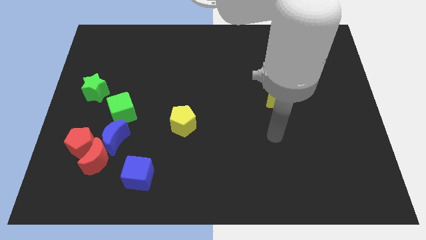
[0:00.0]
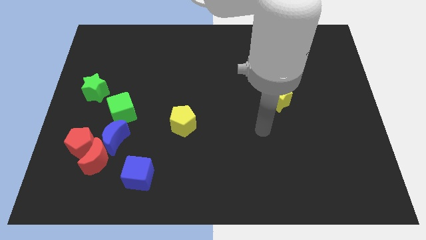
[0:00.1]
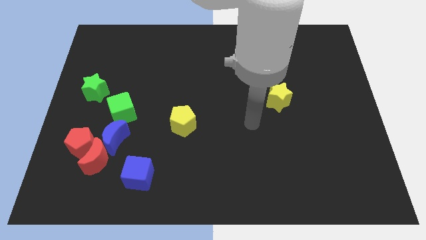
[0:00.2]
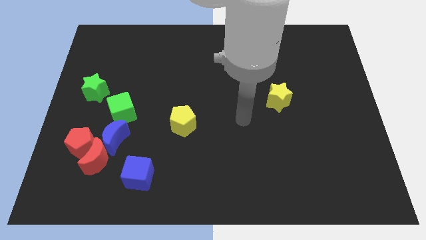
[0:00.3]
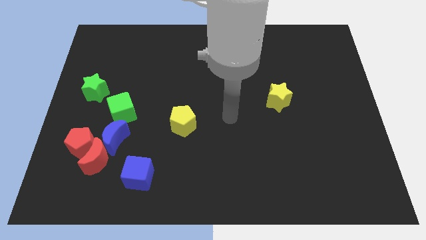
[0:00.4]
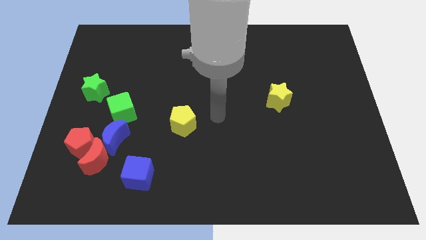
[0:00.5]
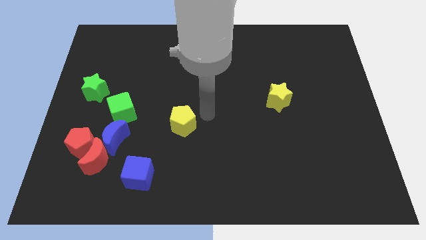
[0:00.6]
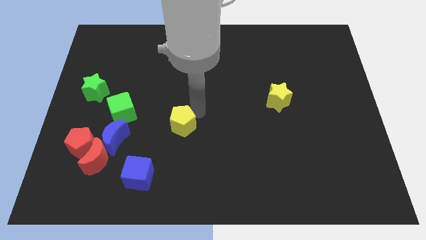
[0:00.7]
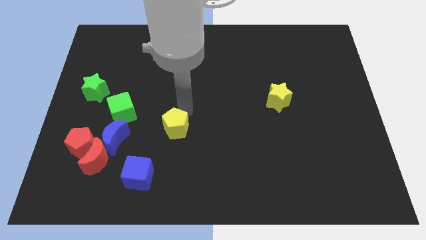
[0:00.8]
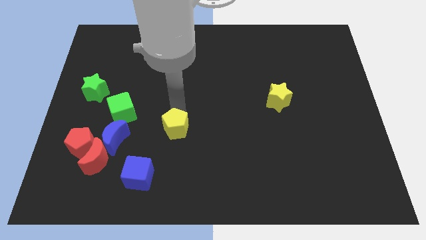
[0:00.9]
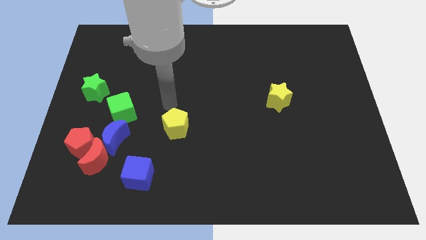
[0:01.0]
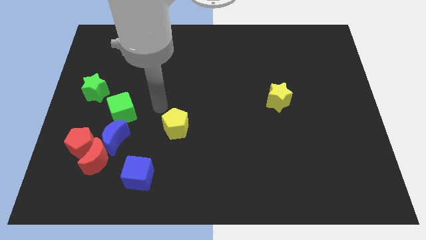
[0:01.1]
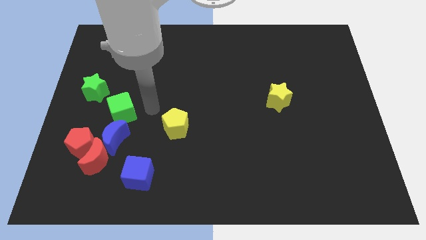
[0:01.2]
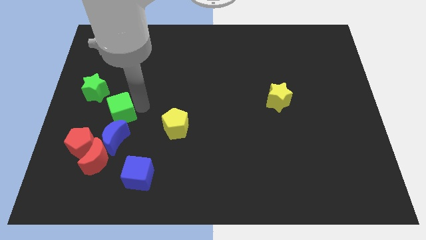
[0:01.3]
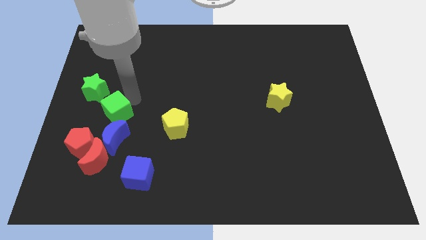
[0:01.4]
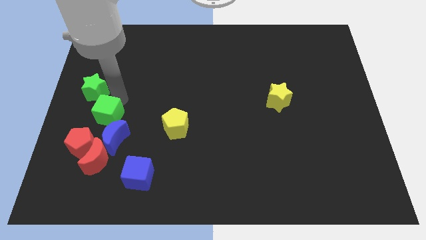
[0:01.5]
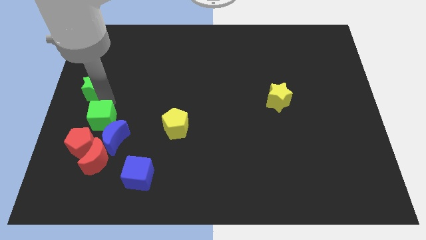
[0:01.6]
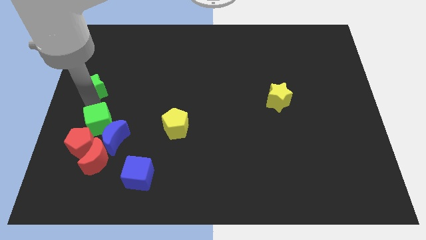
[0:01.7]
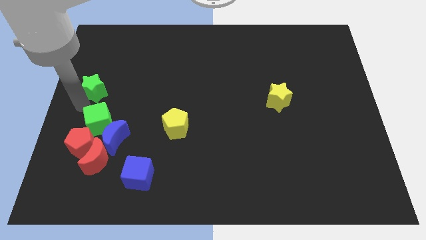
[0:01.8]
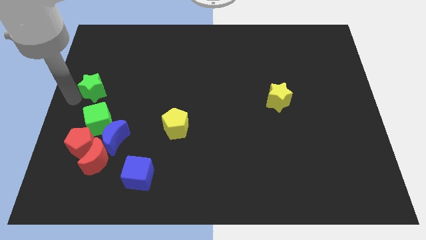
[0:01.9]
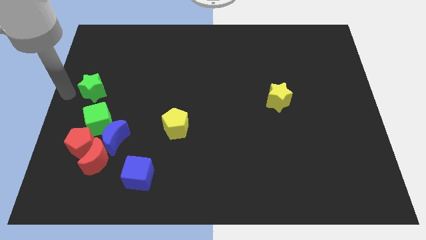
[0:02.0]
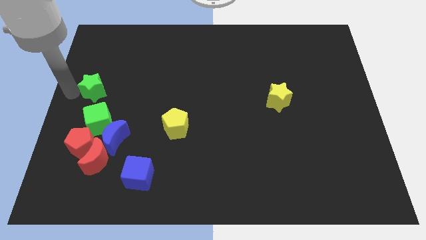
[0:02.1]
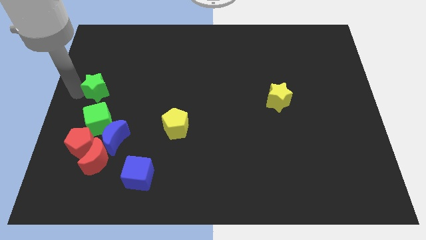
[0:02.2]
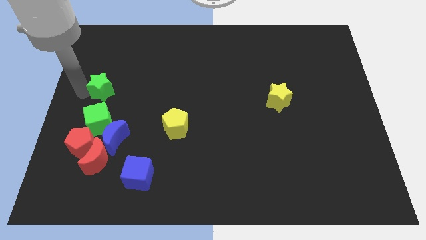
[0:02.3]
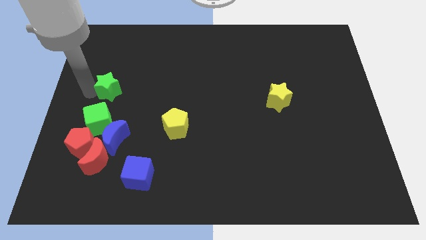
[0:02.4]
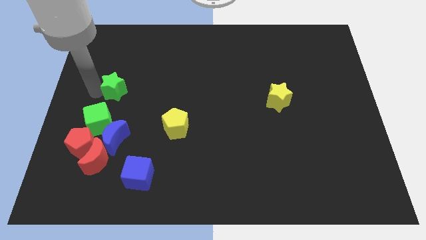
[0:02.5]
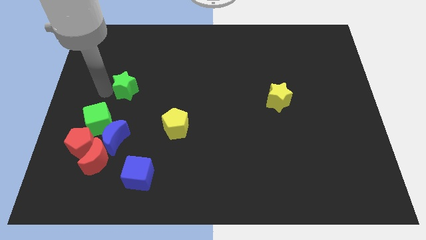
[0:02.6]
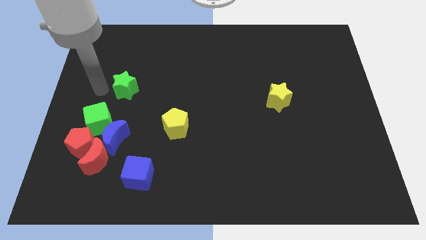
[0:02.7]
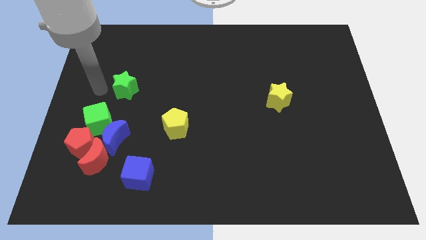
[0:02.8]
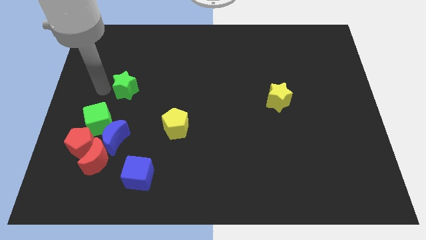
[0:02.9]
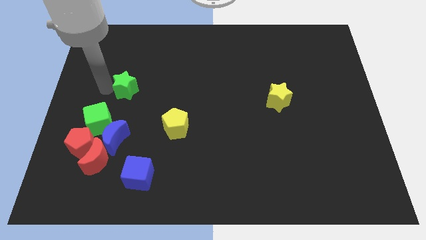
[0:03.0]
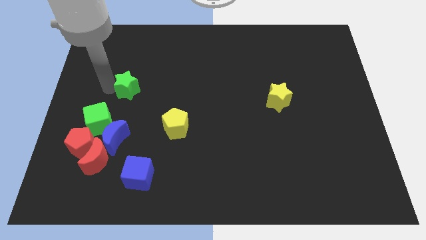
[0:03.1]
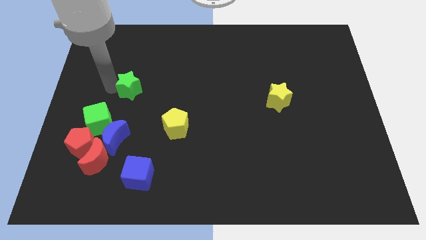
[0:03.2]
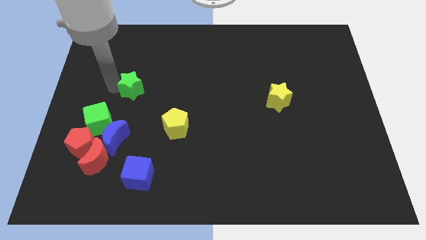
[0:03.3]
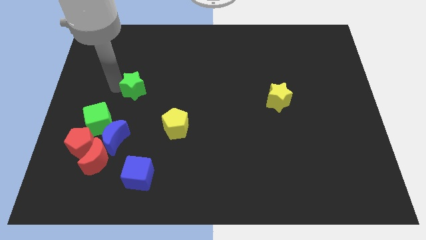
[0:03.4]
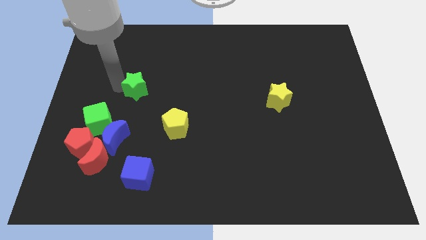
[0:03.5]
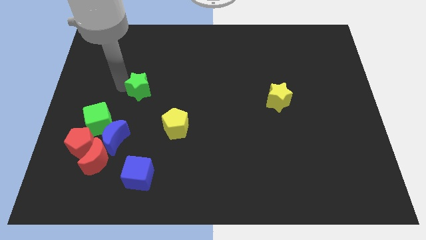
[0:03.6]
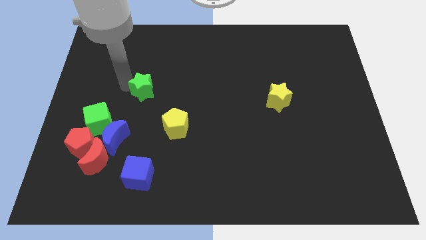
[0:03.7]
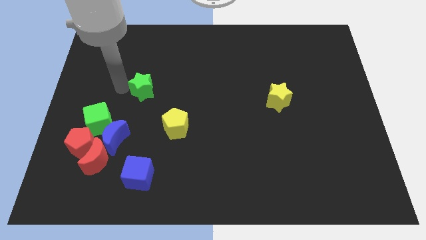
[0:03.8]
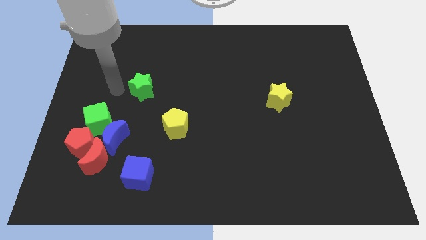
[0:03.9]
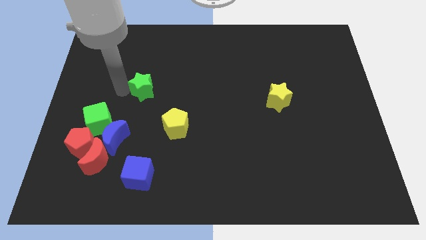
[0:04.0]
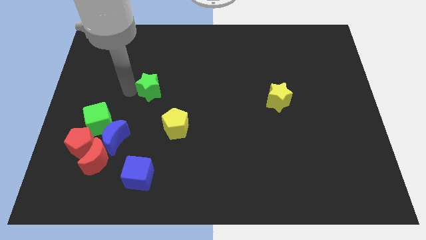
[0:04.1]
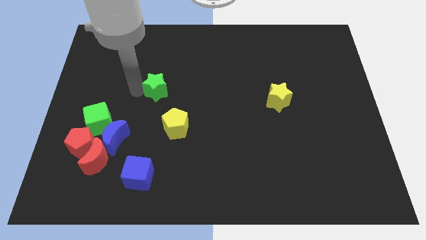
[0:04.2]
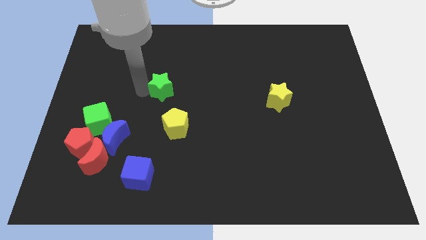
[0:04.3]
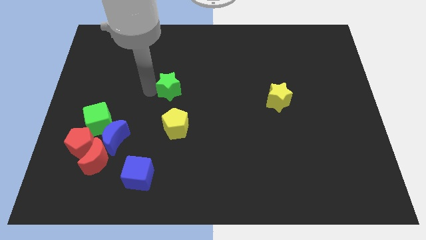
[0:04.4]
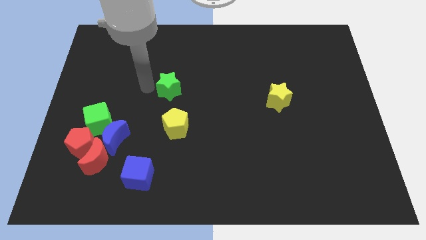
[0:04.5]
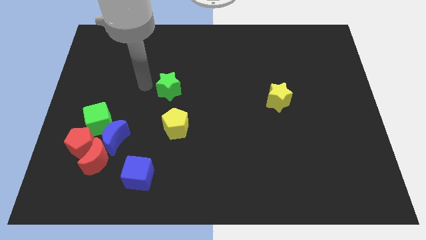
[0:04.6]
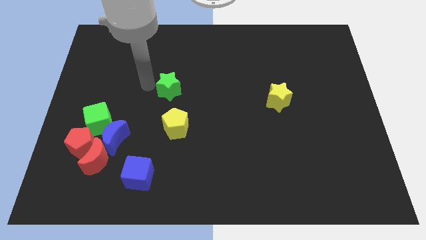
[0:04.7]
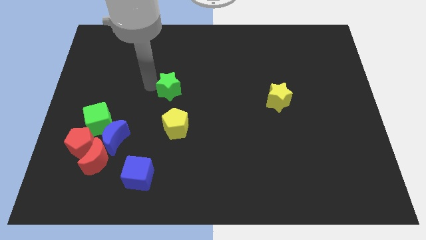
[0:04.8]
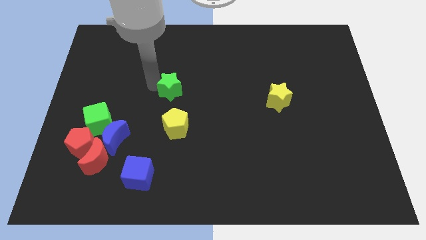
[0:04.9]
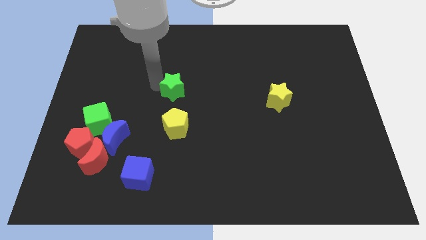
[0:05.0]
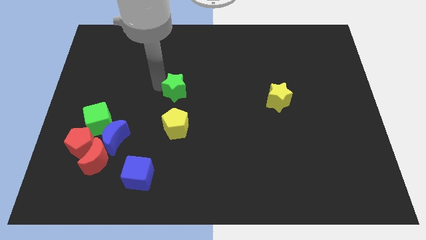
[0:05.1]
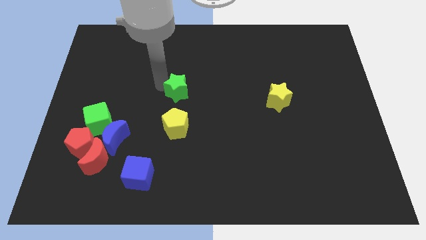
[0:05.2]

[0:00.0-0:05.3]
push the green star right

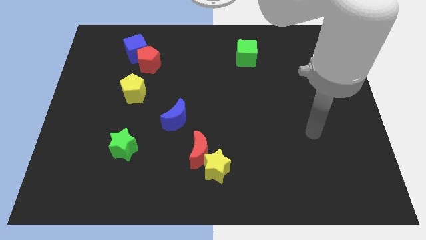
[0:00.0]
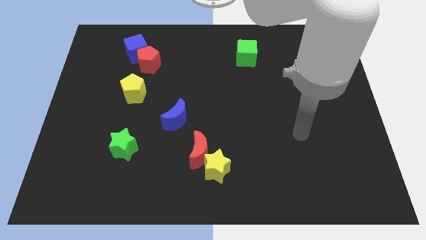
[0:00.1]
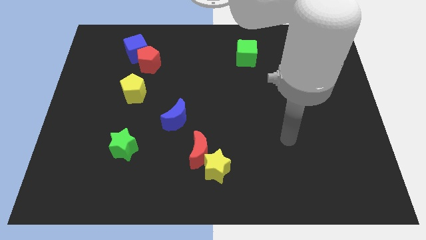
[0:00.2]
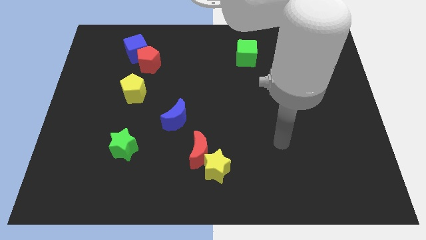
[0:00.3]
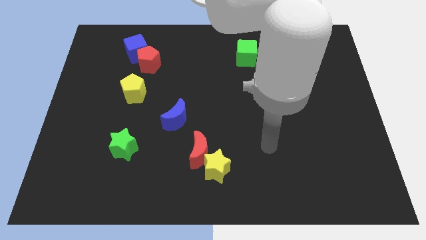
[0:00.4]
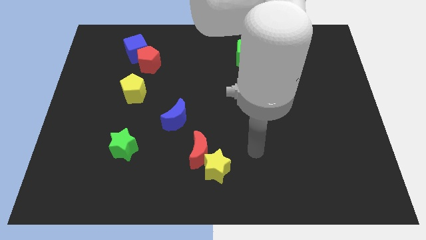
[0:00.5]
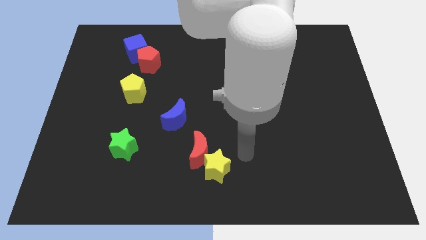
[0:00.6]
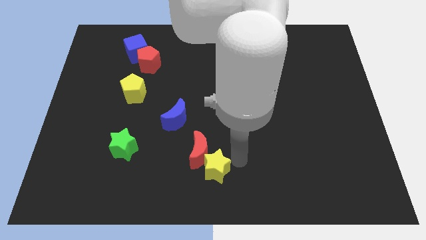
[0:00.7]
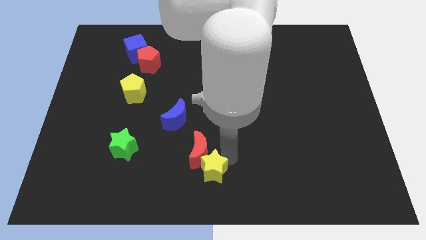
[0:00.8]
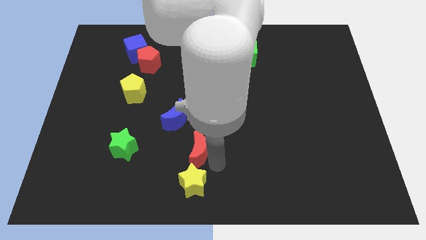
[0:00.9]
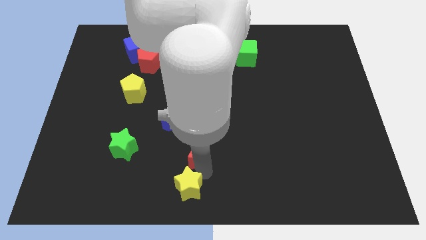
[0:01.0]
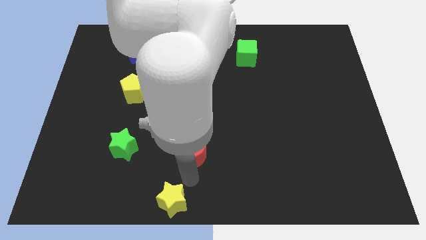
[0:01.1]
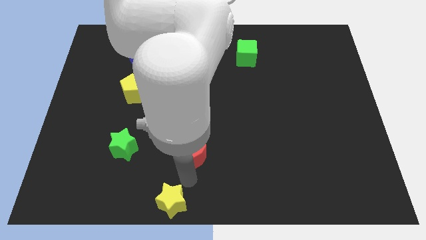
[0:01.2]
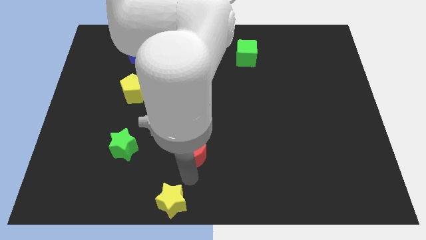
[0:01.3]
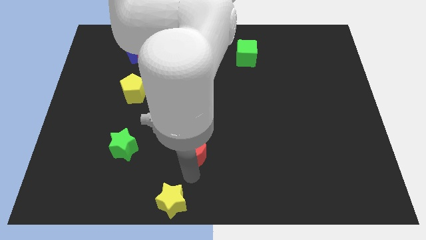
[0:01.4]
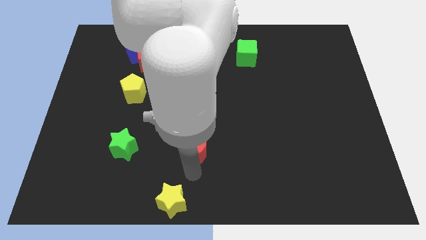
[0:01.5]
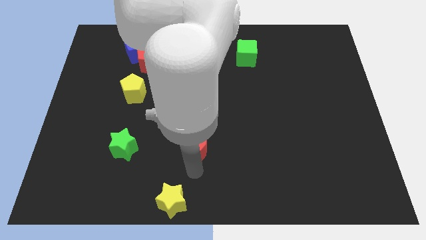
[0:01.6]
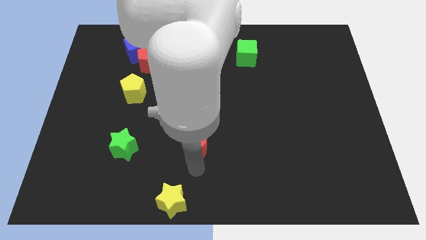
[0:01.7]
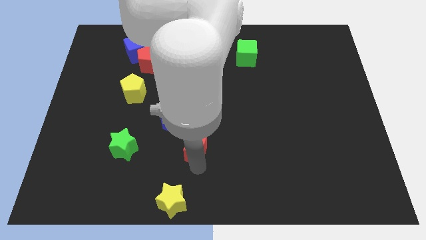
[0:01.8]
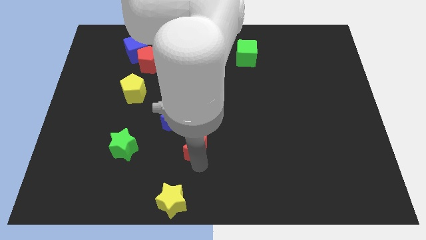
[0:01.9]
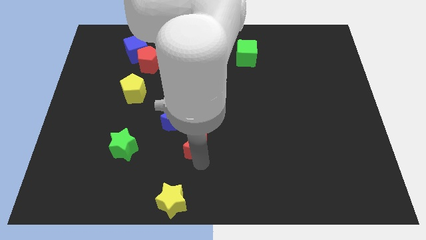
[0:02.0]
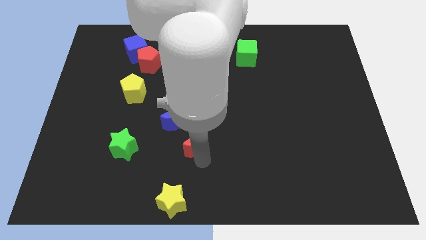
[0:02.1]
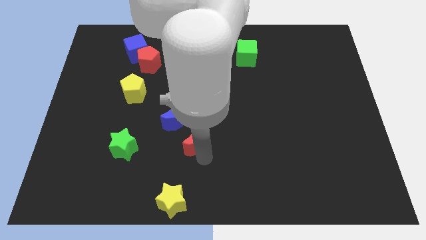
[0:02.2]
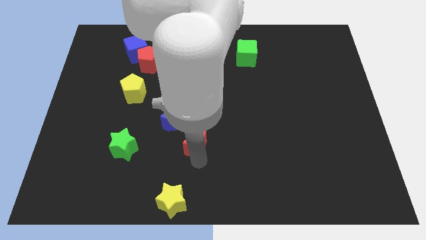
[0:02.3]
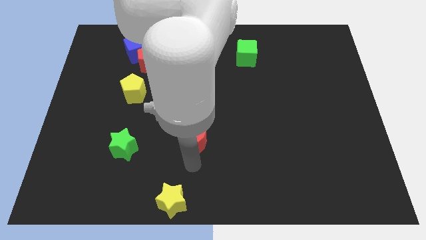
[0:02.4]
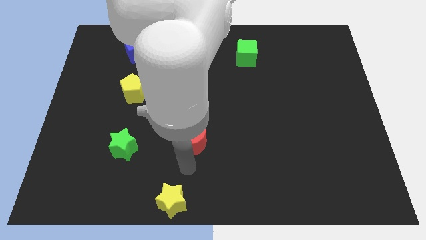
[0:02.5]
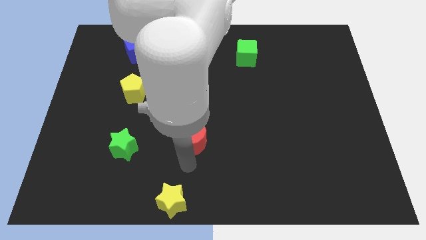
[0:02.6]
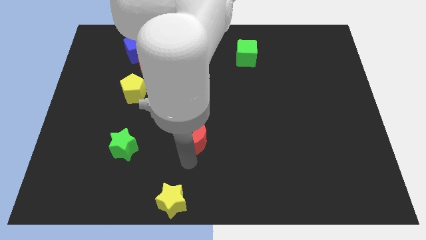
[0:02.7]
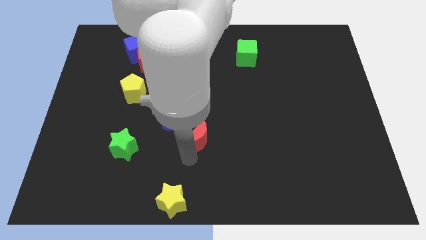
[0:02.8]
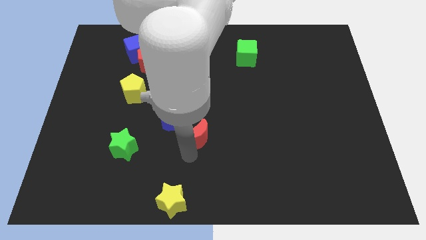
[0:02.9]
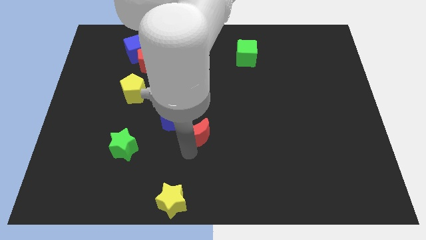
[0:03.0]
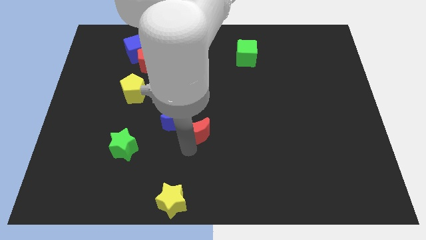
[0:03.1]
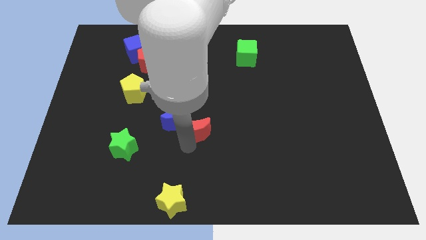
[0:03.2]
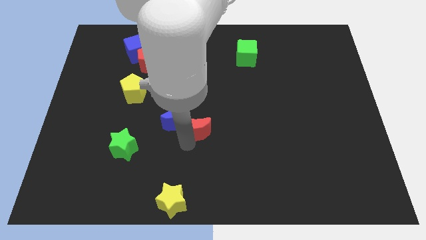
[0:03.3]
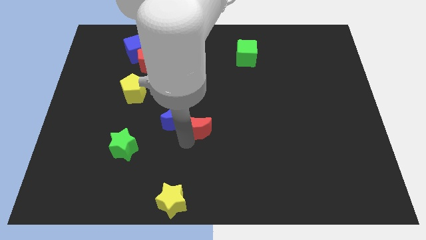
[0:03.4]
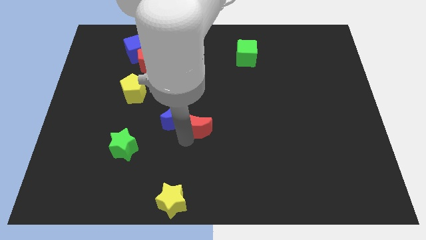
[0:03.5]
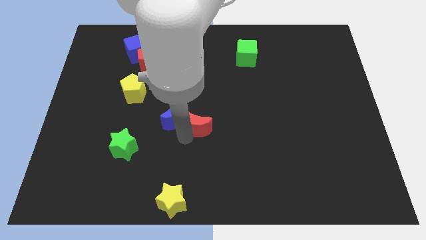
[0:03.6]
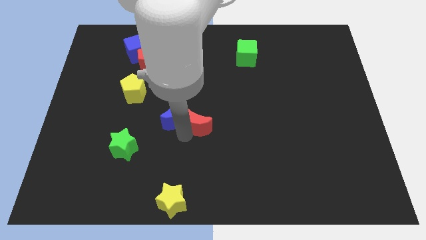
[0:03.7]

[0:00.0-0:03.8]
slide the red moon up slightly
